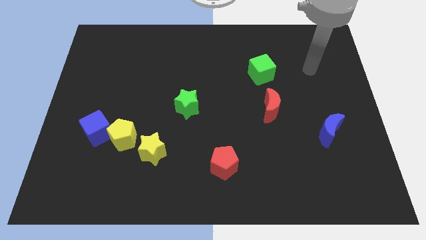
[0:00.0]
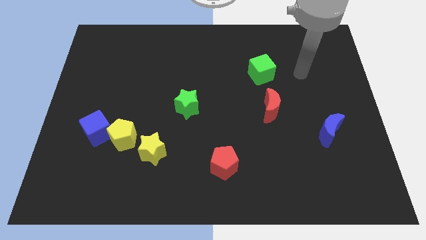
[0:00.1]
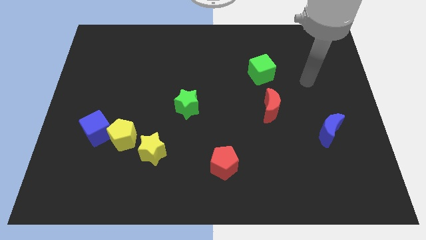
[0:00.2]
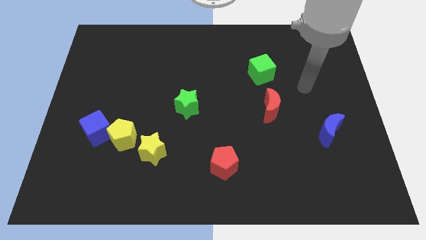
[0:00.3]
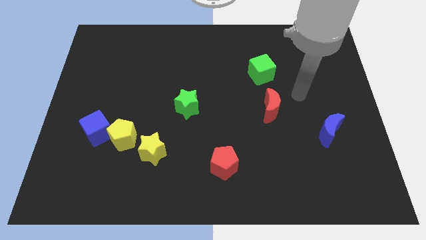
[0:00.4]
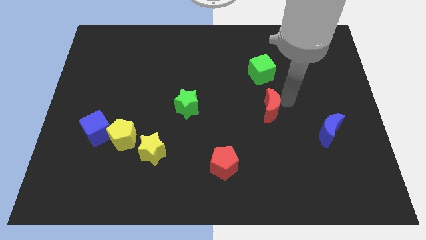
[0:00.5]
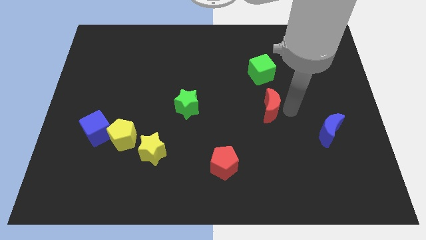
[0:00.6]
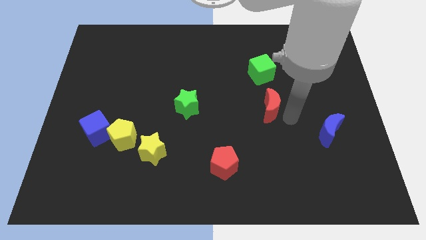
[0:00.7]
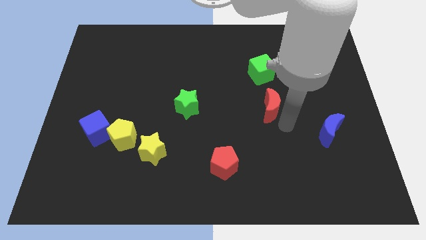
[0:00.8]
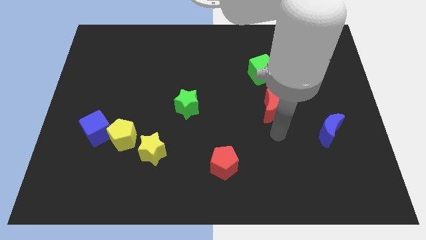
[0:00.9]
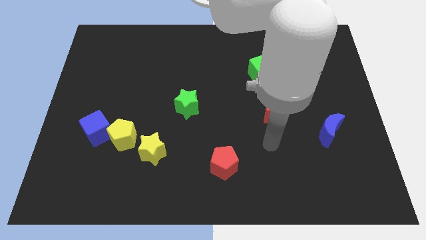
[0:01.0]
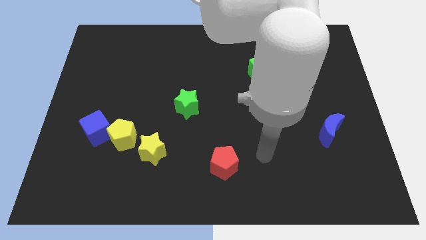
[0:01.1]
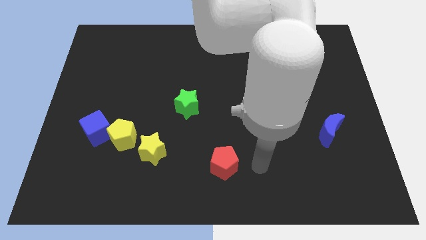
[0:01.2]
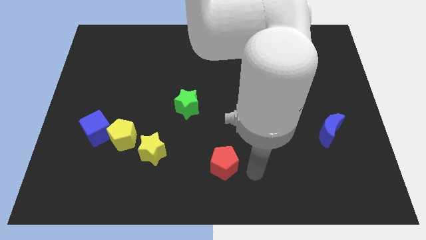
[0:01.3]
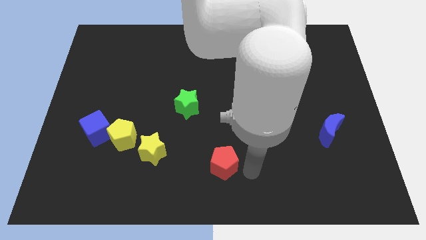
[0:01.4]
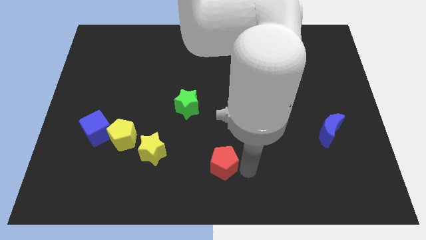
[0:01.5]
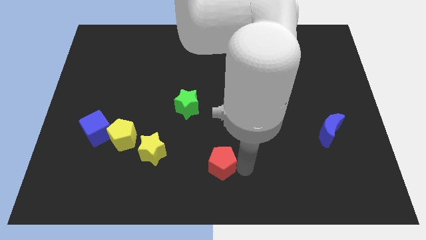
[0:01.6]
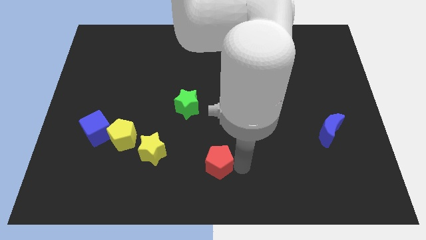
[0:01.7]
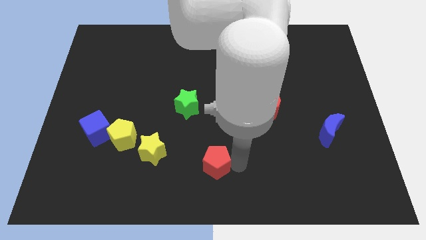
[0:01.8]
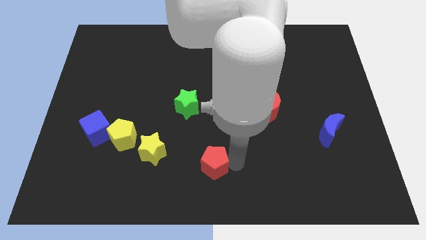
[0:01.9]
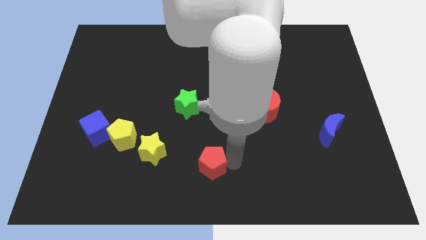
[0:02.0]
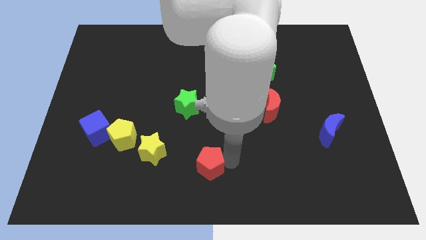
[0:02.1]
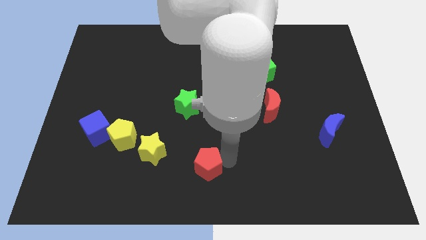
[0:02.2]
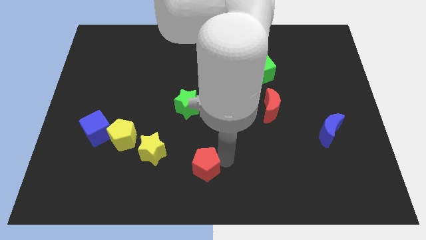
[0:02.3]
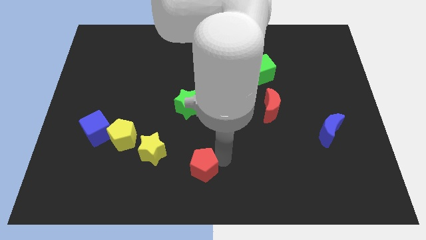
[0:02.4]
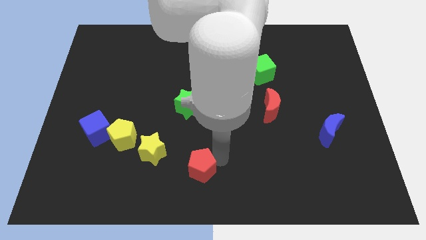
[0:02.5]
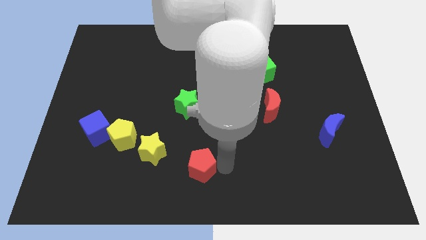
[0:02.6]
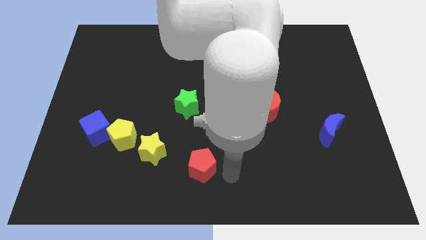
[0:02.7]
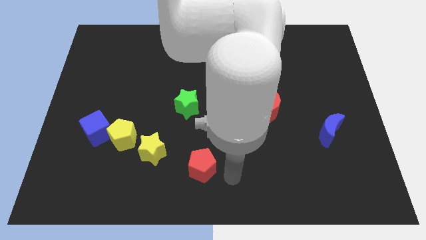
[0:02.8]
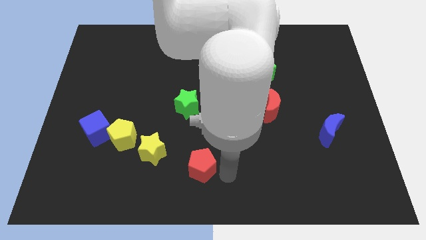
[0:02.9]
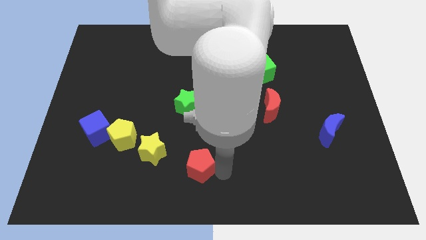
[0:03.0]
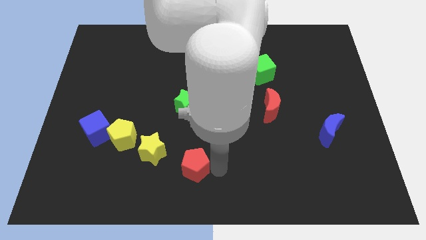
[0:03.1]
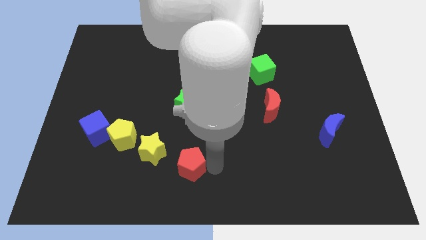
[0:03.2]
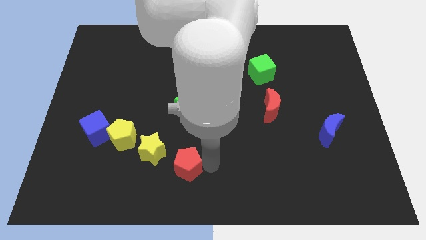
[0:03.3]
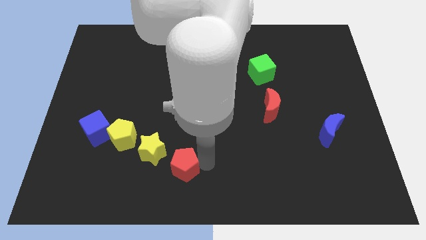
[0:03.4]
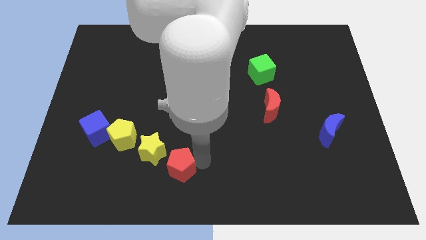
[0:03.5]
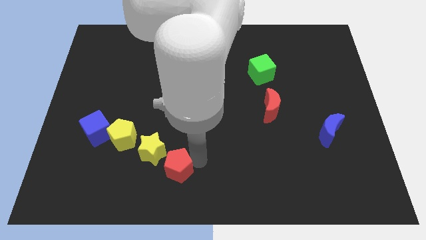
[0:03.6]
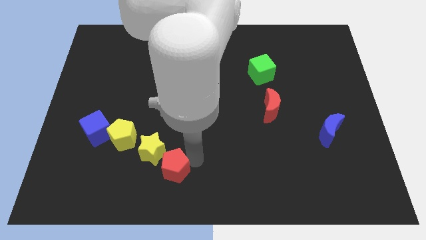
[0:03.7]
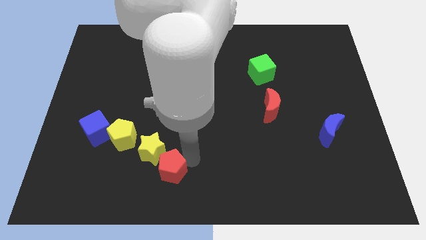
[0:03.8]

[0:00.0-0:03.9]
slide the red pentagon towards the yellow star

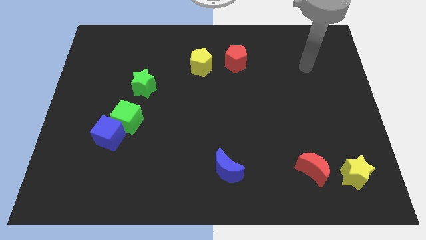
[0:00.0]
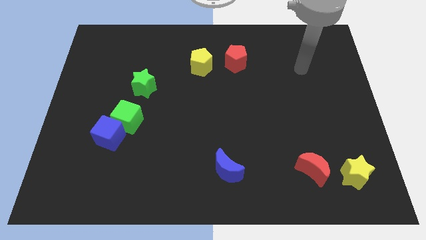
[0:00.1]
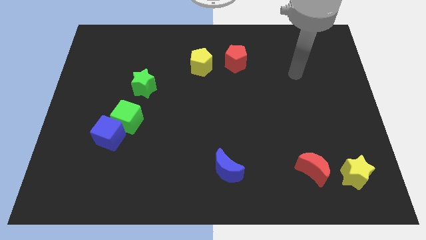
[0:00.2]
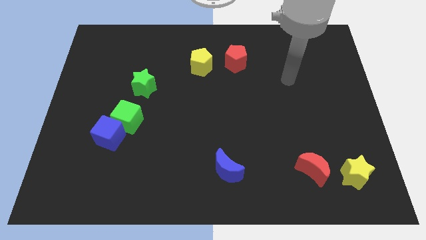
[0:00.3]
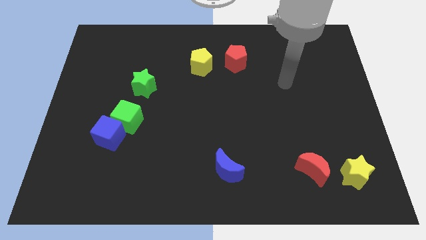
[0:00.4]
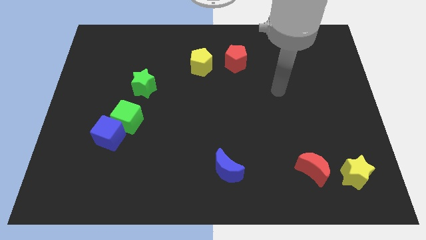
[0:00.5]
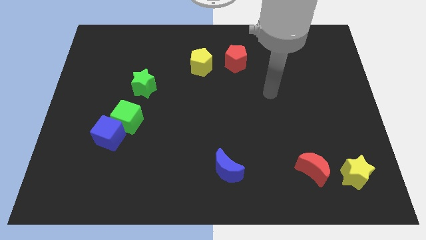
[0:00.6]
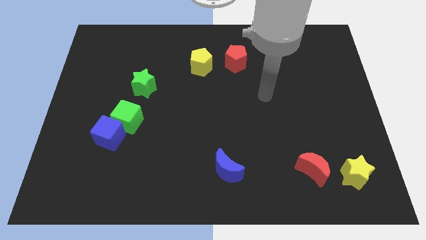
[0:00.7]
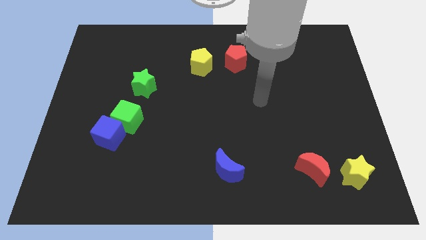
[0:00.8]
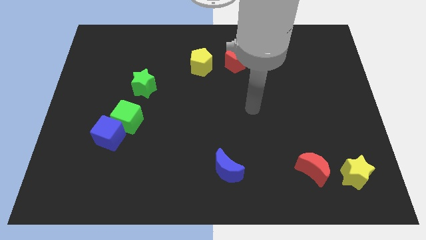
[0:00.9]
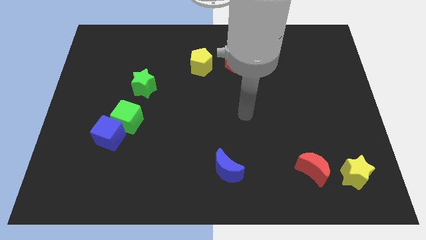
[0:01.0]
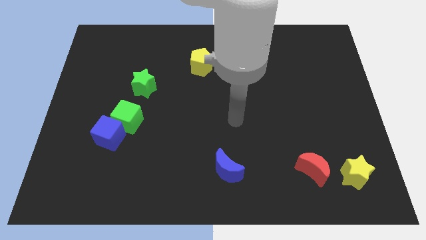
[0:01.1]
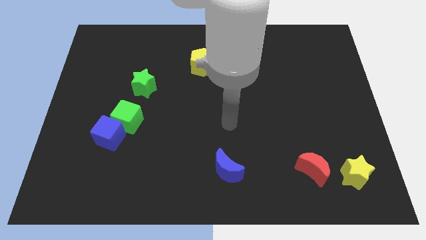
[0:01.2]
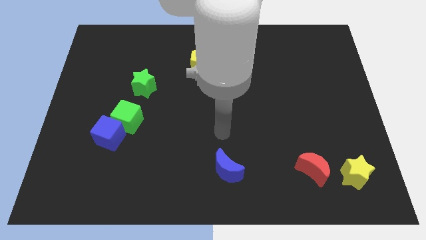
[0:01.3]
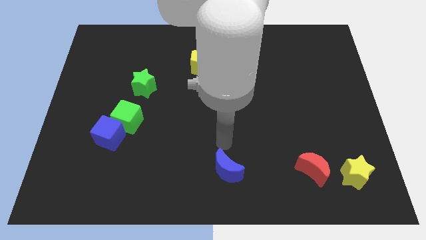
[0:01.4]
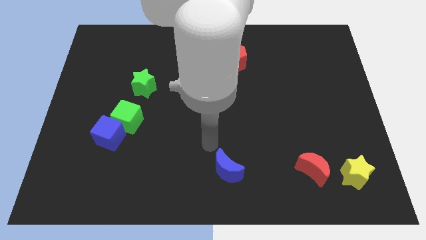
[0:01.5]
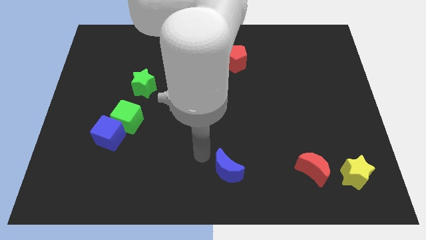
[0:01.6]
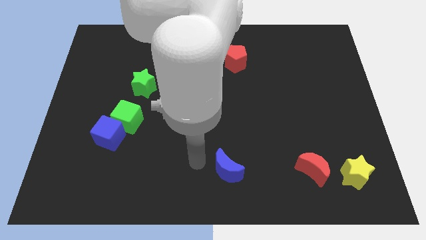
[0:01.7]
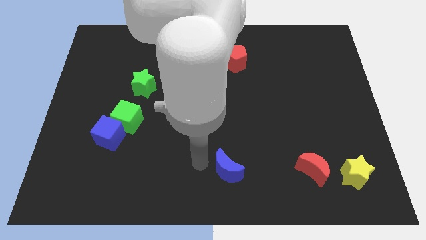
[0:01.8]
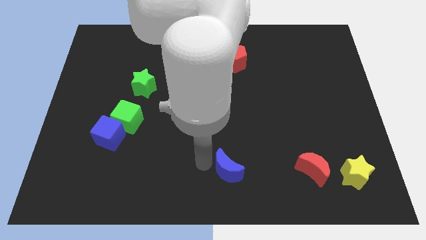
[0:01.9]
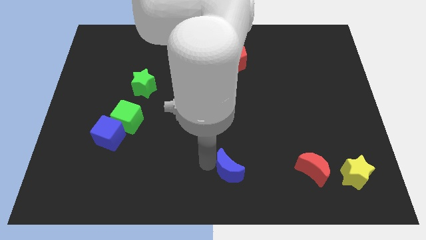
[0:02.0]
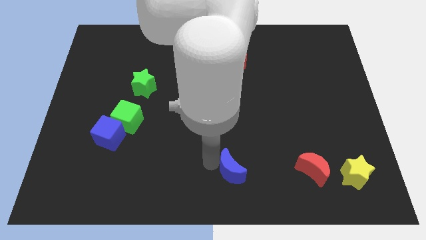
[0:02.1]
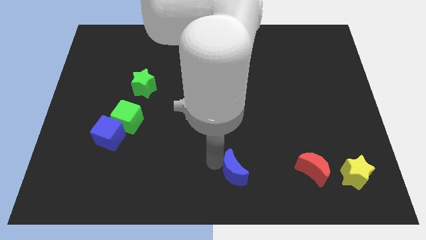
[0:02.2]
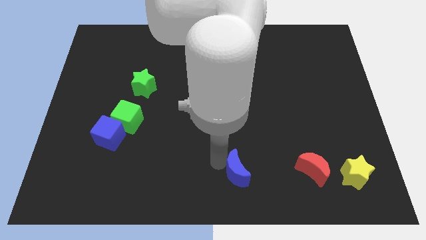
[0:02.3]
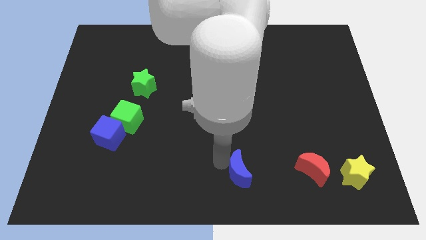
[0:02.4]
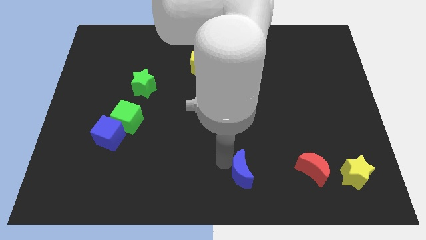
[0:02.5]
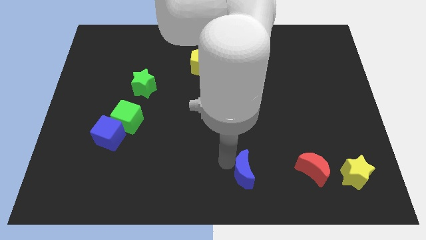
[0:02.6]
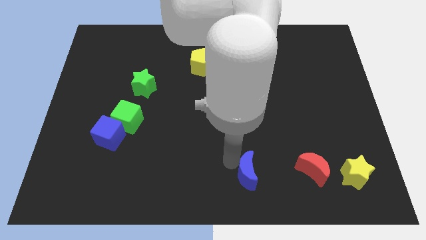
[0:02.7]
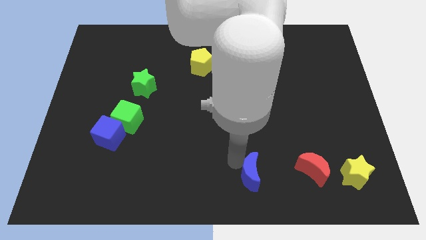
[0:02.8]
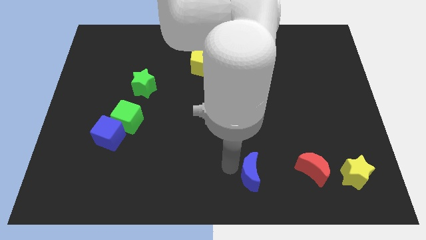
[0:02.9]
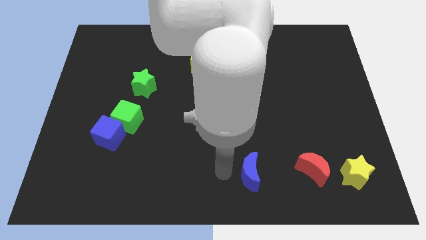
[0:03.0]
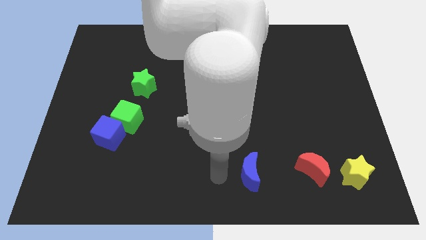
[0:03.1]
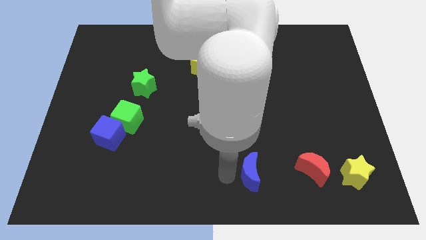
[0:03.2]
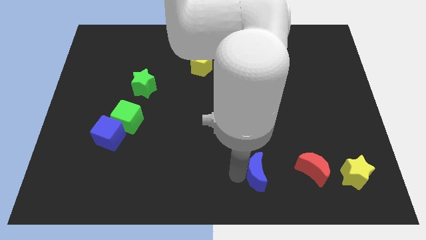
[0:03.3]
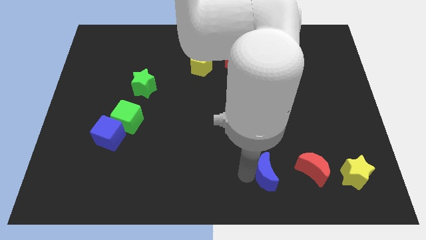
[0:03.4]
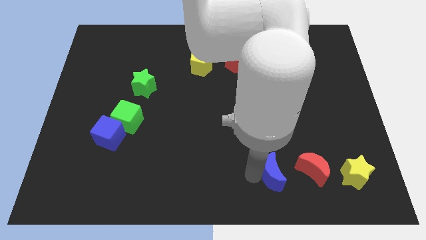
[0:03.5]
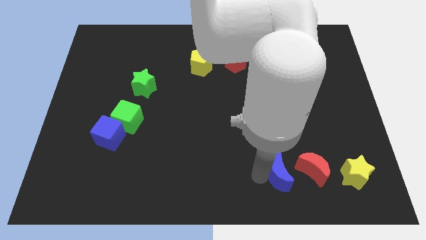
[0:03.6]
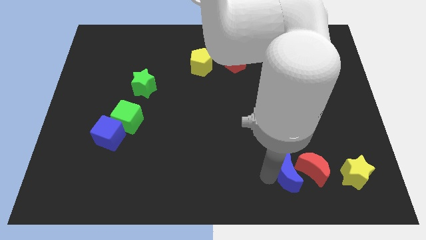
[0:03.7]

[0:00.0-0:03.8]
push the blue moon close to the red moon
